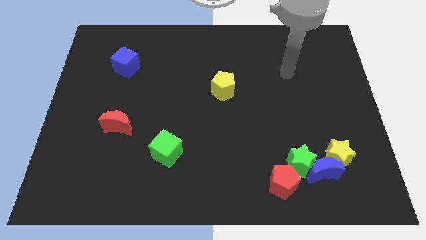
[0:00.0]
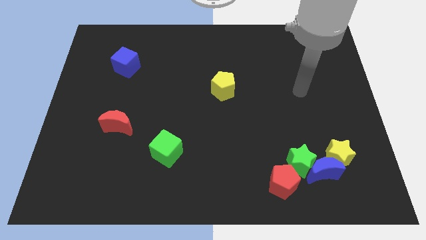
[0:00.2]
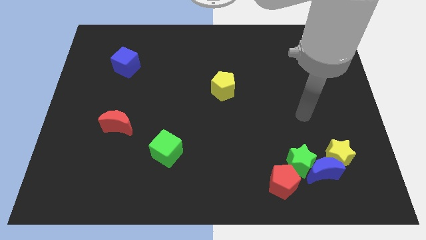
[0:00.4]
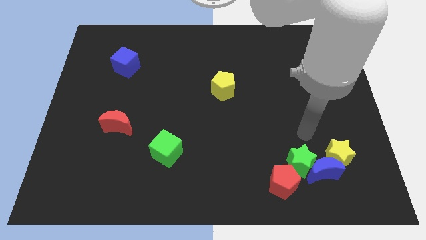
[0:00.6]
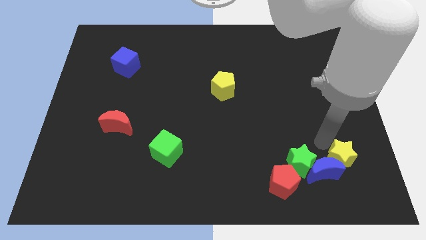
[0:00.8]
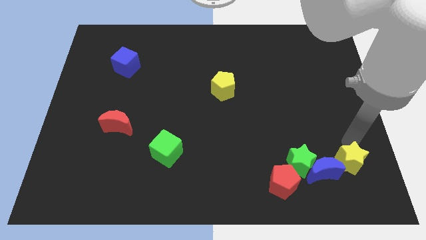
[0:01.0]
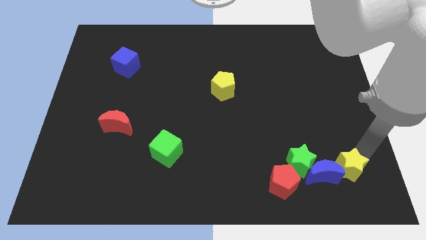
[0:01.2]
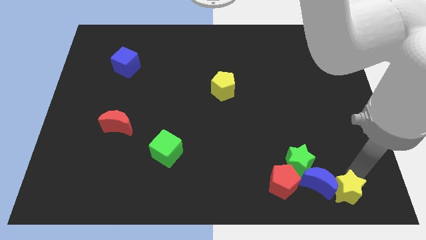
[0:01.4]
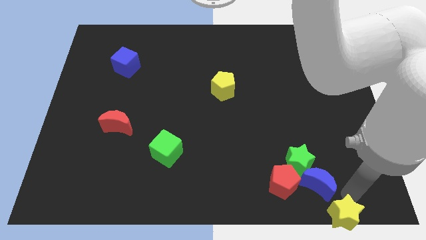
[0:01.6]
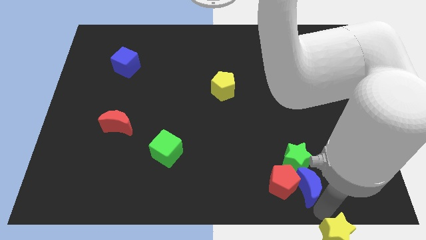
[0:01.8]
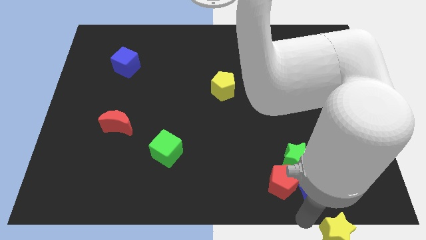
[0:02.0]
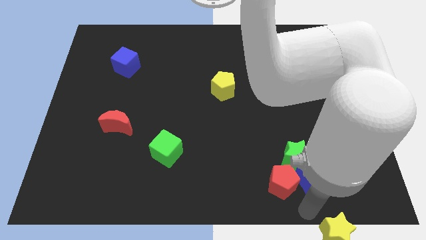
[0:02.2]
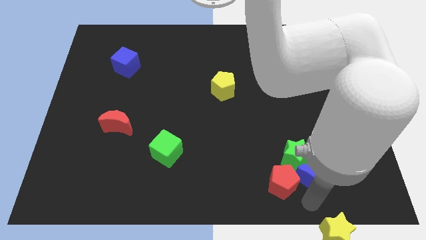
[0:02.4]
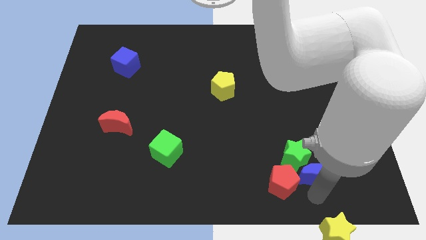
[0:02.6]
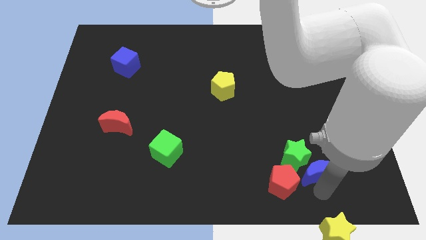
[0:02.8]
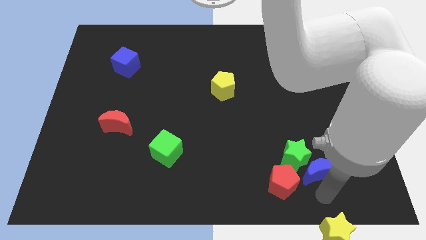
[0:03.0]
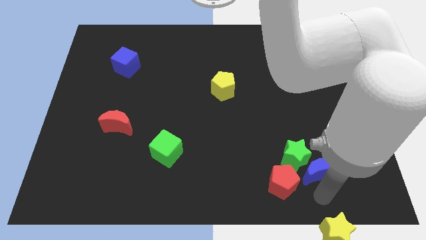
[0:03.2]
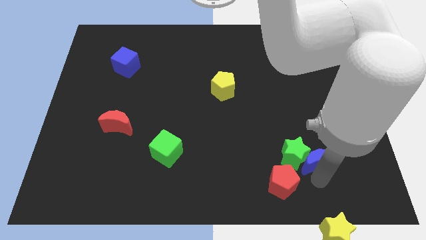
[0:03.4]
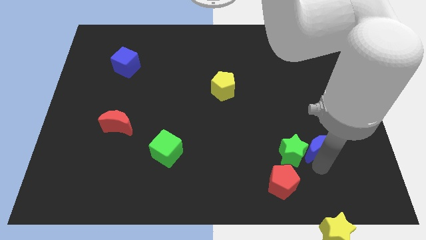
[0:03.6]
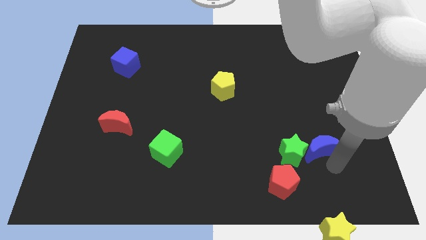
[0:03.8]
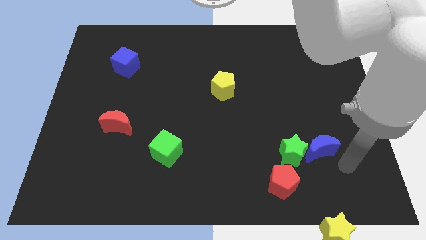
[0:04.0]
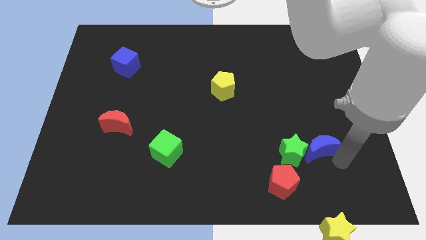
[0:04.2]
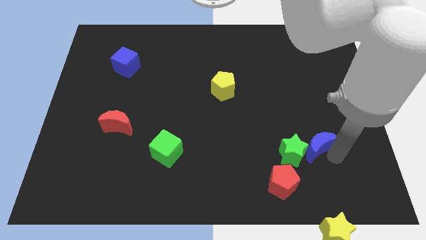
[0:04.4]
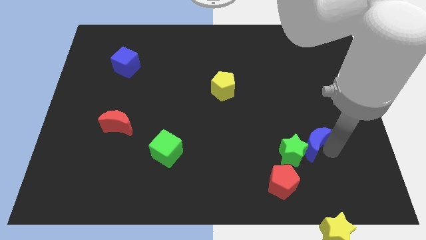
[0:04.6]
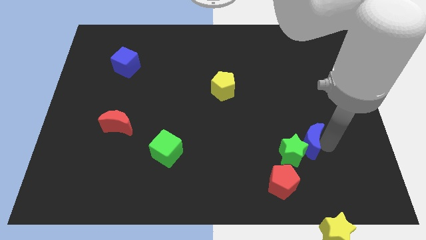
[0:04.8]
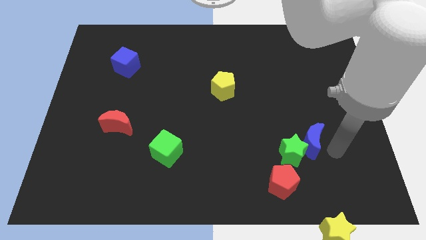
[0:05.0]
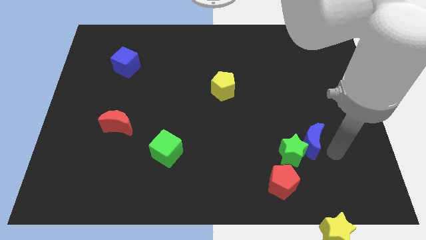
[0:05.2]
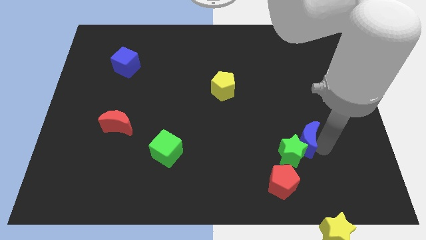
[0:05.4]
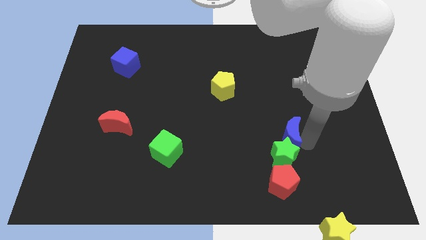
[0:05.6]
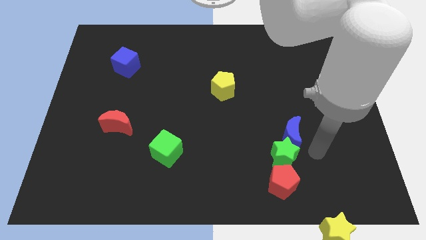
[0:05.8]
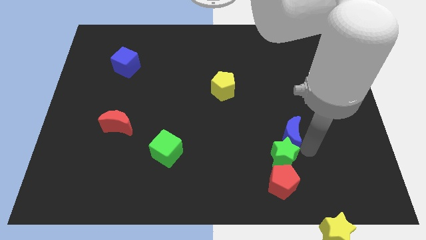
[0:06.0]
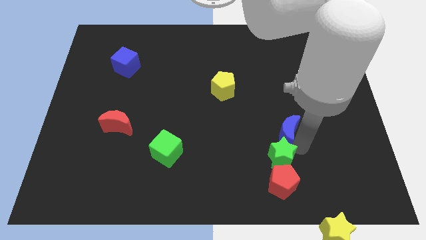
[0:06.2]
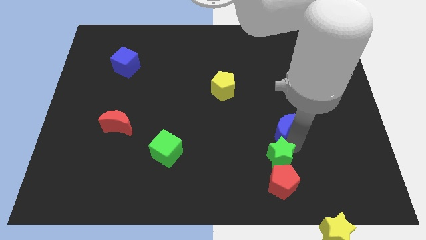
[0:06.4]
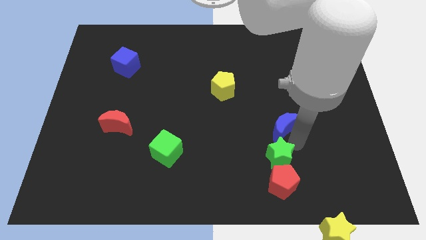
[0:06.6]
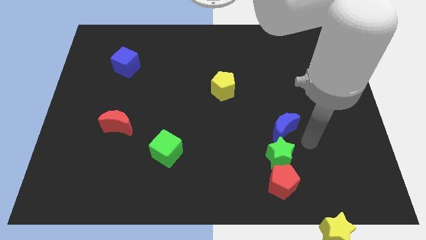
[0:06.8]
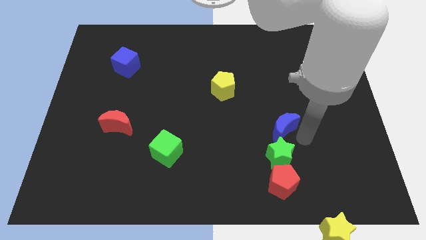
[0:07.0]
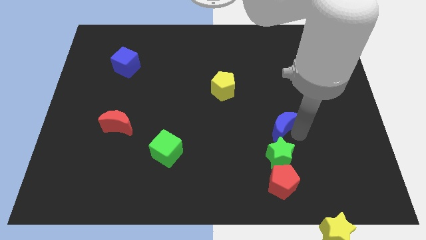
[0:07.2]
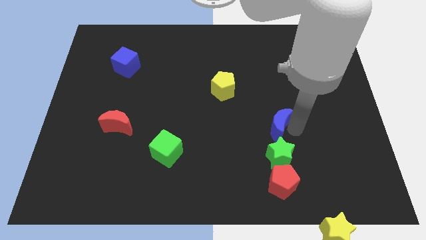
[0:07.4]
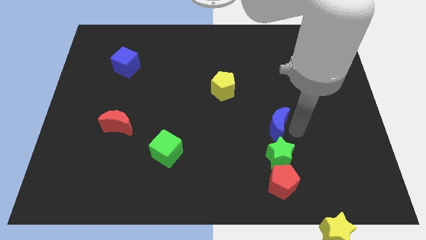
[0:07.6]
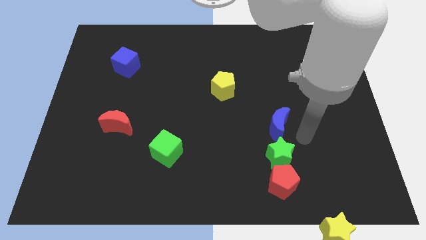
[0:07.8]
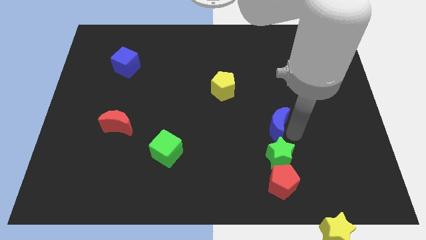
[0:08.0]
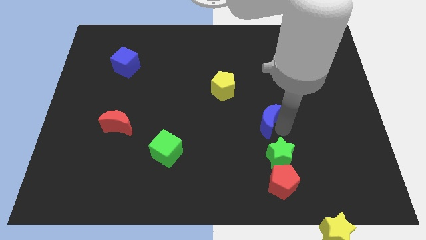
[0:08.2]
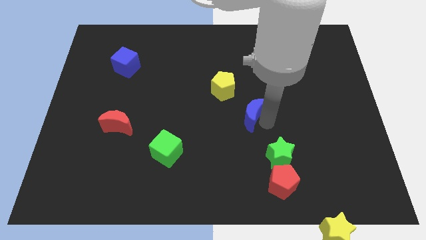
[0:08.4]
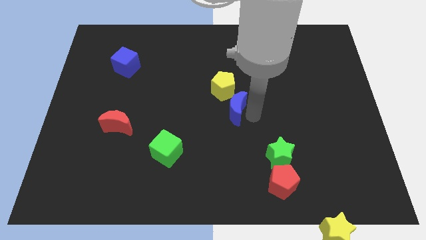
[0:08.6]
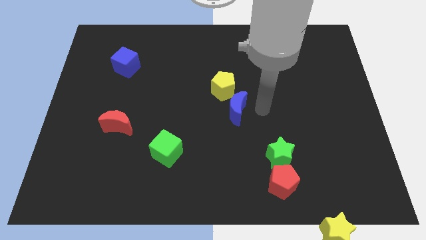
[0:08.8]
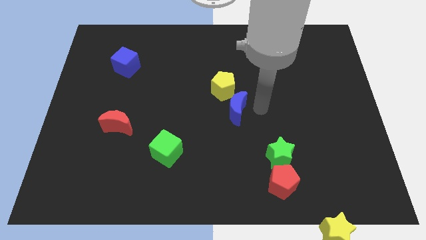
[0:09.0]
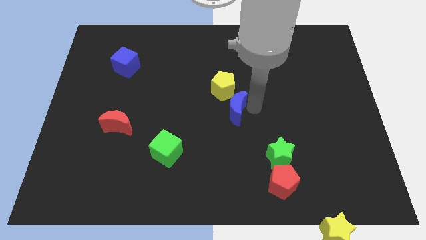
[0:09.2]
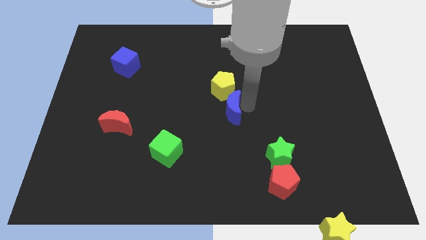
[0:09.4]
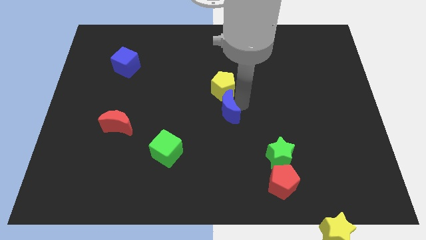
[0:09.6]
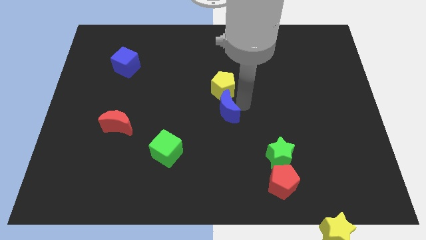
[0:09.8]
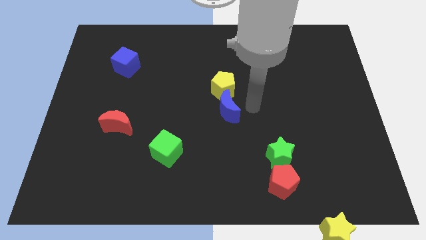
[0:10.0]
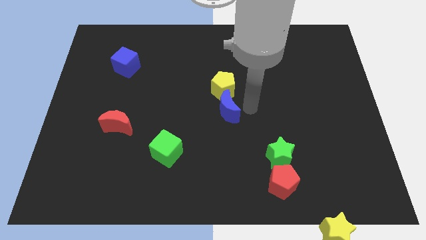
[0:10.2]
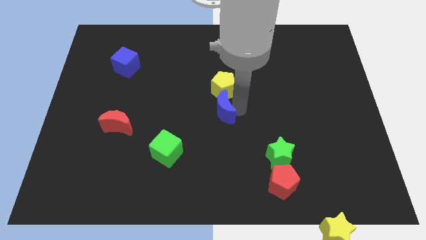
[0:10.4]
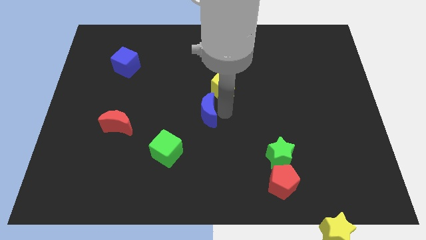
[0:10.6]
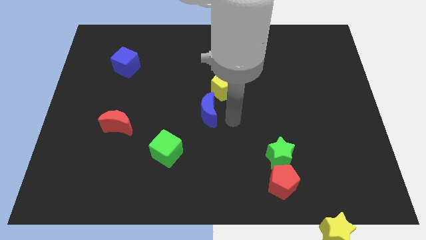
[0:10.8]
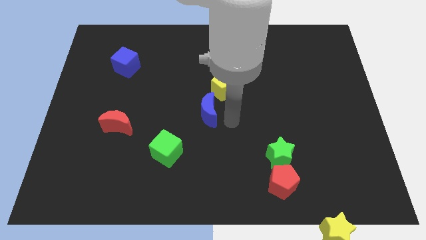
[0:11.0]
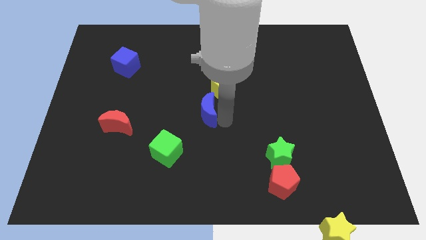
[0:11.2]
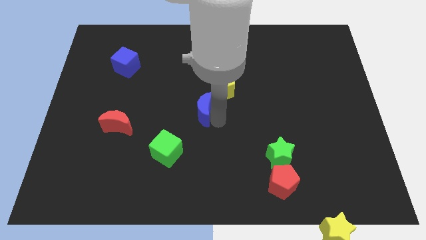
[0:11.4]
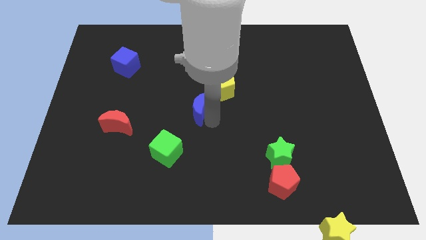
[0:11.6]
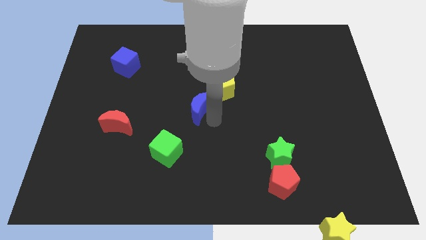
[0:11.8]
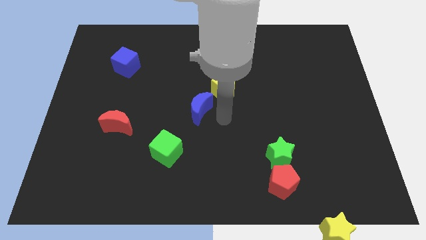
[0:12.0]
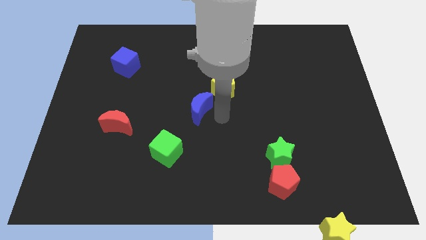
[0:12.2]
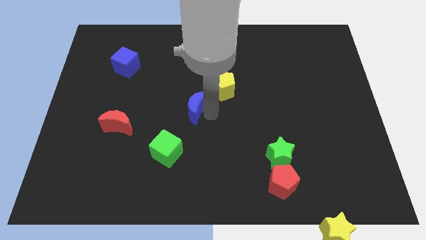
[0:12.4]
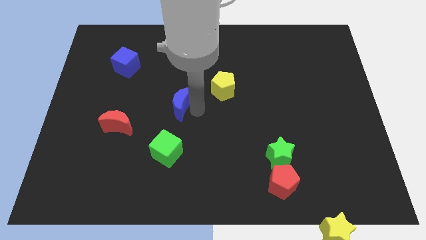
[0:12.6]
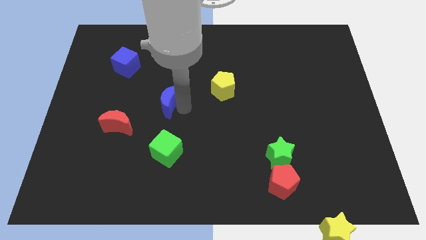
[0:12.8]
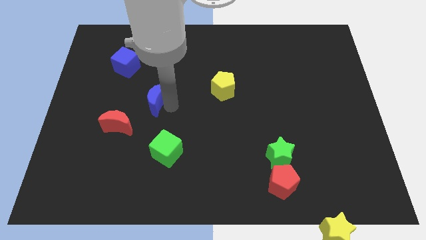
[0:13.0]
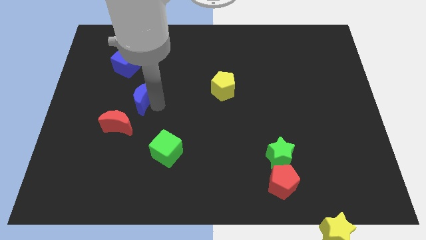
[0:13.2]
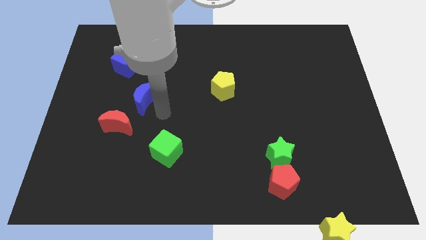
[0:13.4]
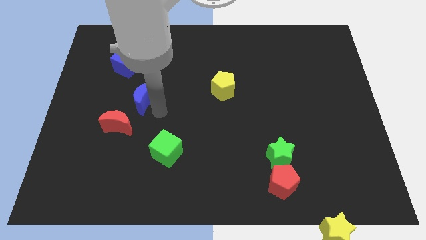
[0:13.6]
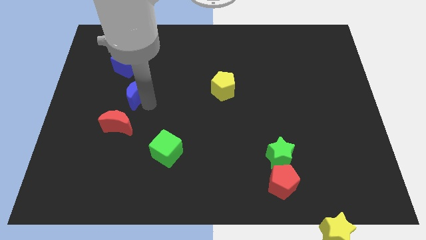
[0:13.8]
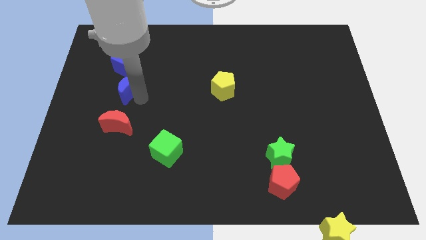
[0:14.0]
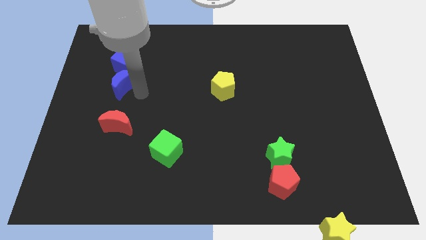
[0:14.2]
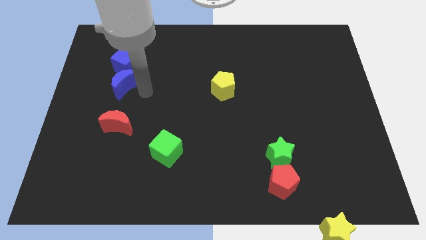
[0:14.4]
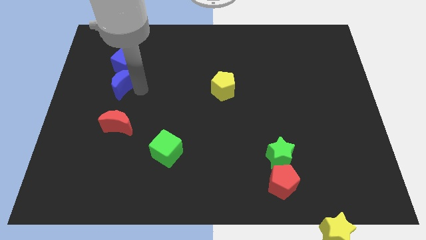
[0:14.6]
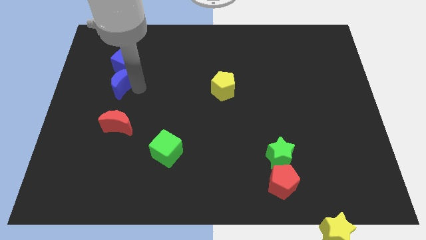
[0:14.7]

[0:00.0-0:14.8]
put the blue moon diagonally down and to the left of the blue cube

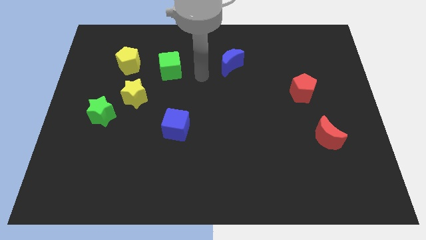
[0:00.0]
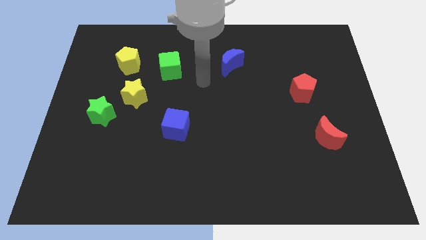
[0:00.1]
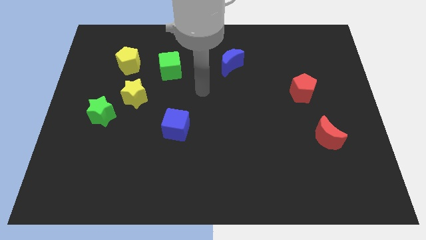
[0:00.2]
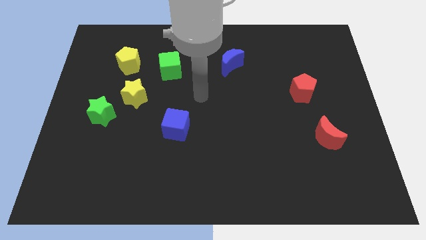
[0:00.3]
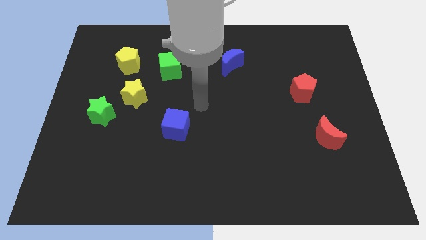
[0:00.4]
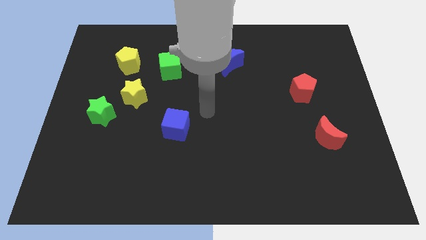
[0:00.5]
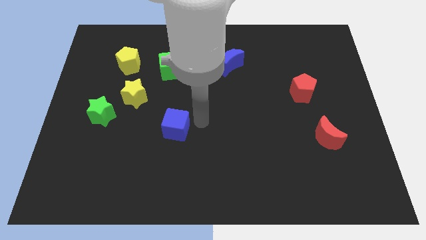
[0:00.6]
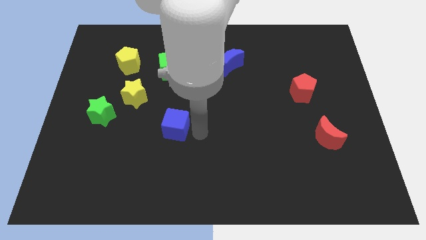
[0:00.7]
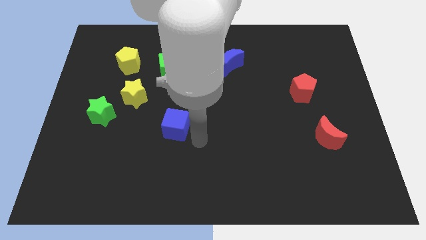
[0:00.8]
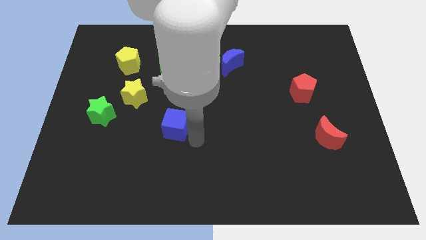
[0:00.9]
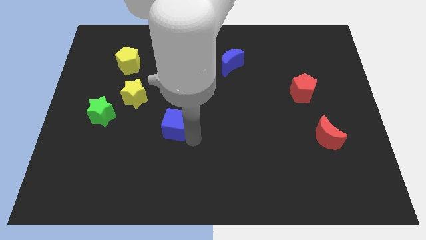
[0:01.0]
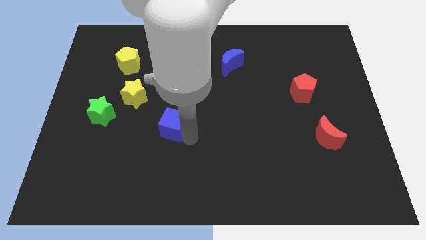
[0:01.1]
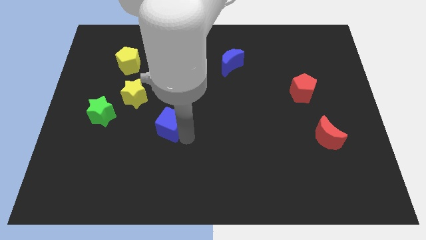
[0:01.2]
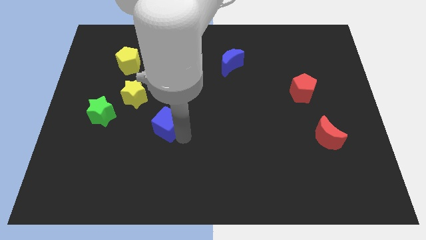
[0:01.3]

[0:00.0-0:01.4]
move the blue cube to the bottom right of the yellow star
